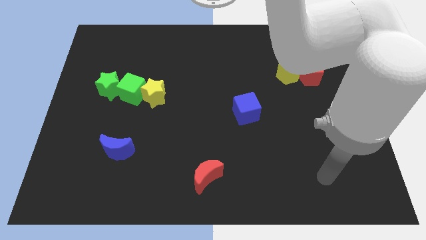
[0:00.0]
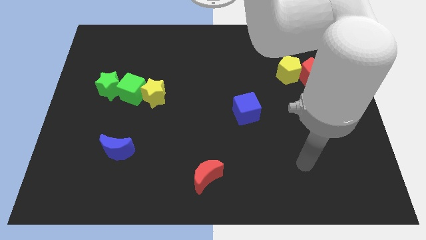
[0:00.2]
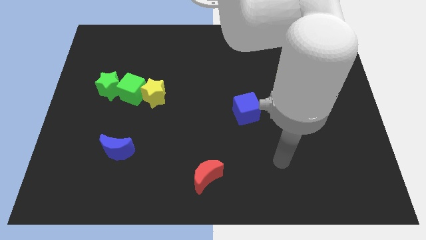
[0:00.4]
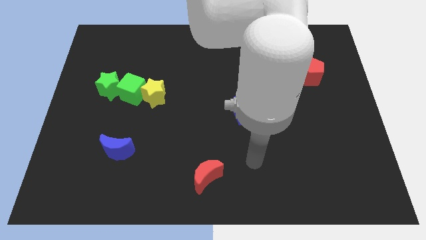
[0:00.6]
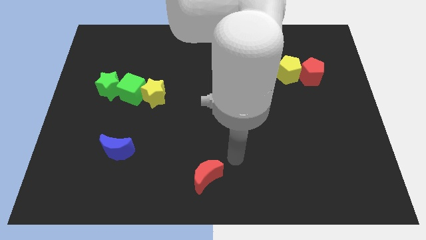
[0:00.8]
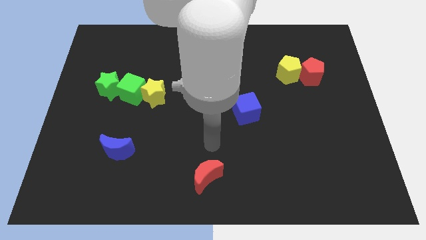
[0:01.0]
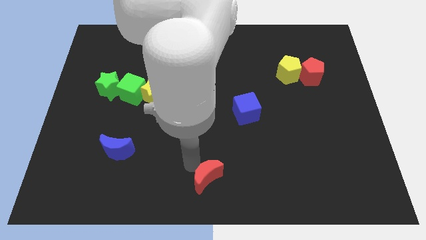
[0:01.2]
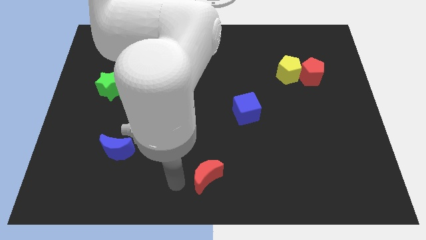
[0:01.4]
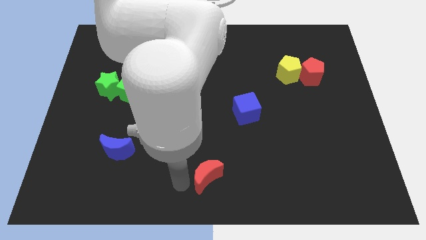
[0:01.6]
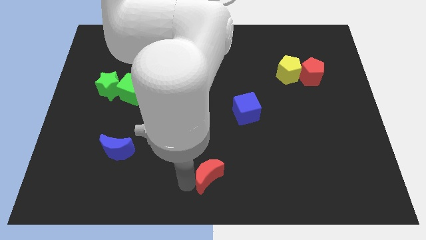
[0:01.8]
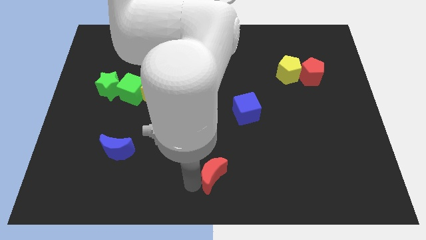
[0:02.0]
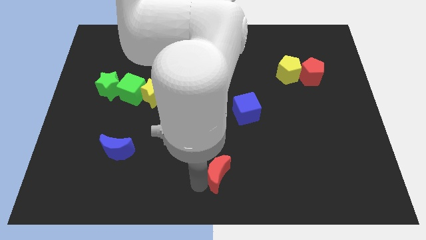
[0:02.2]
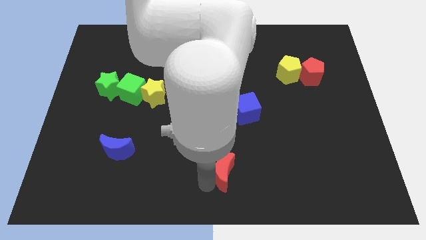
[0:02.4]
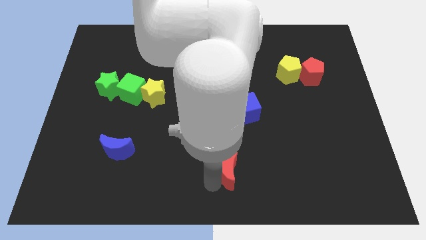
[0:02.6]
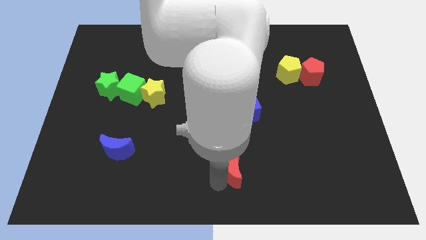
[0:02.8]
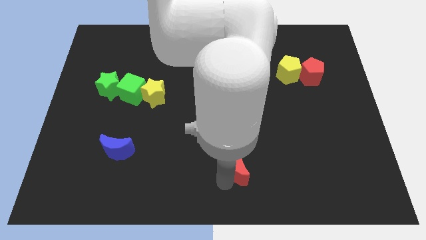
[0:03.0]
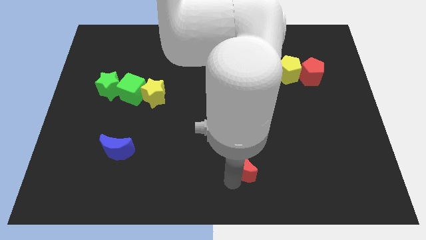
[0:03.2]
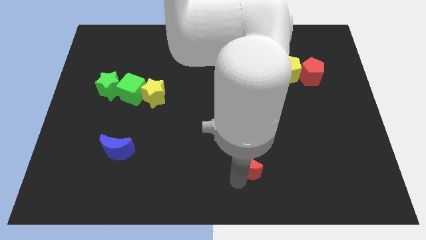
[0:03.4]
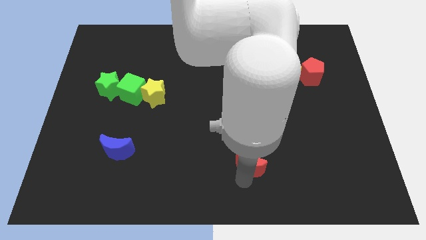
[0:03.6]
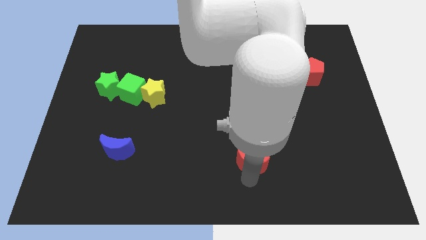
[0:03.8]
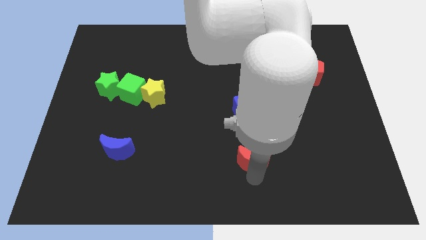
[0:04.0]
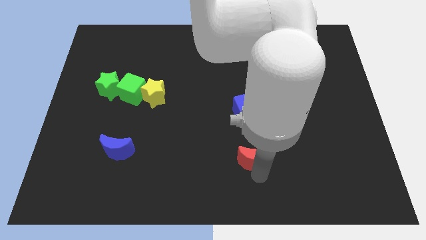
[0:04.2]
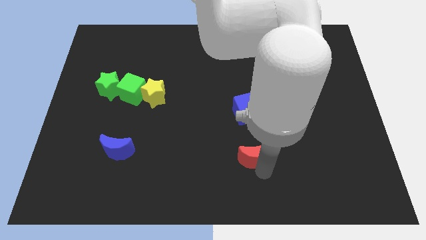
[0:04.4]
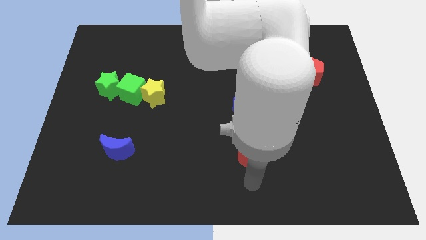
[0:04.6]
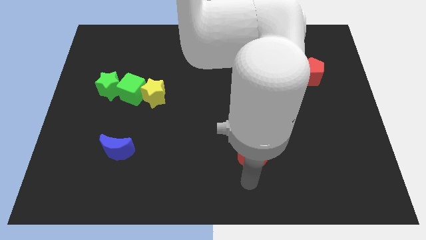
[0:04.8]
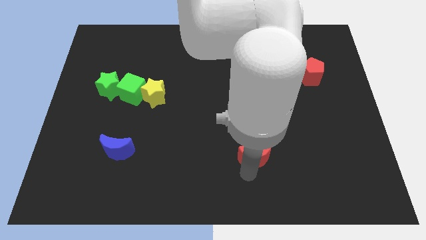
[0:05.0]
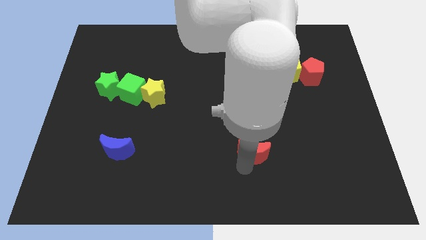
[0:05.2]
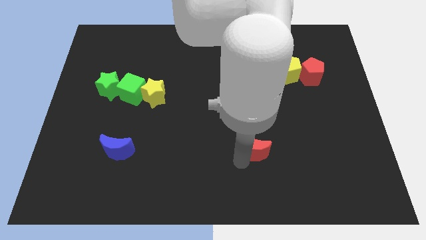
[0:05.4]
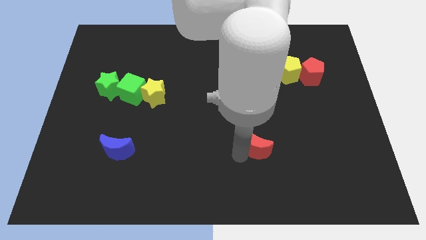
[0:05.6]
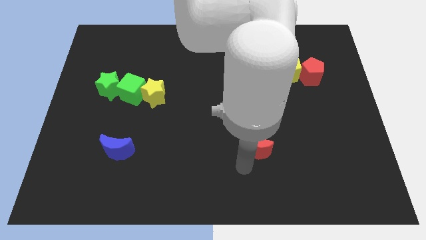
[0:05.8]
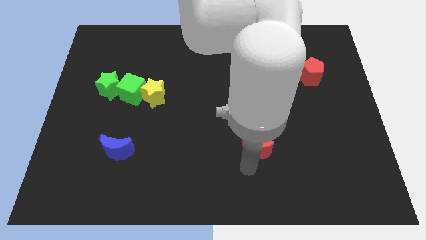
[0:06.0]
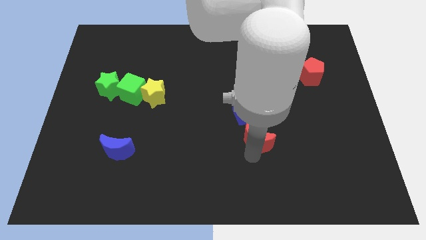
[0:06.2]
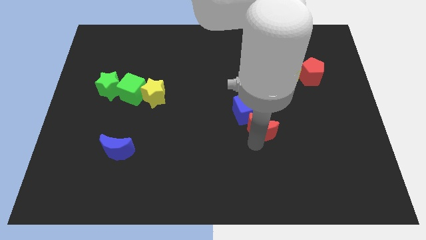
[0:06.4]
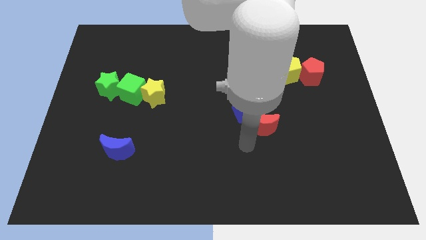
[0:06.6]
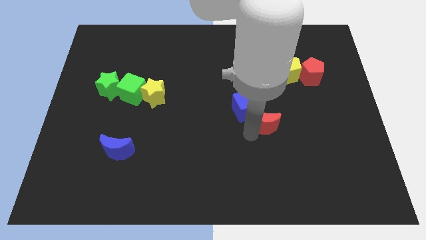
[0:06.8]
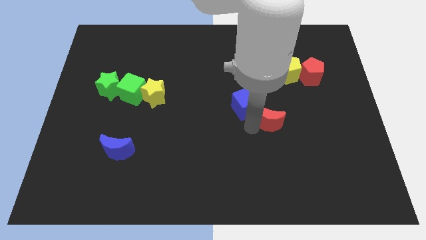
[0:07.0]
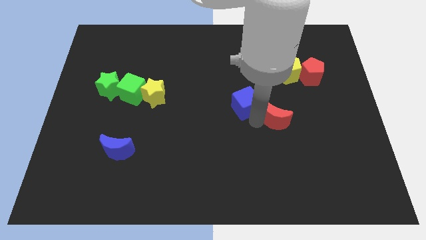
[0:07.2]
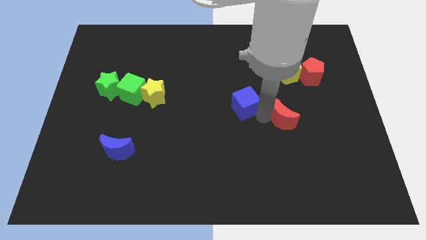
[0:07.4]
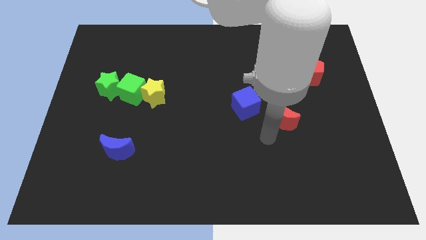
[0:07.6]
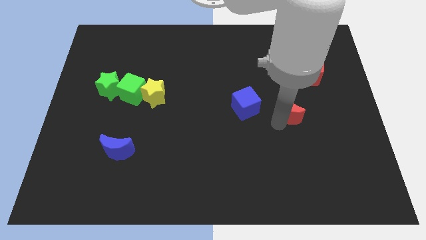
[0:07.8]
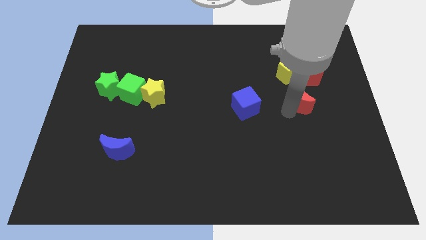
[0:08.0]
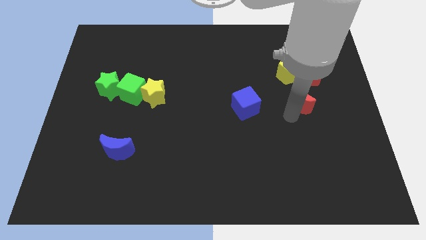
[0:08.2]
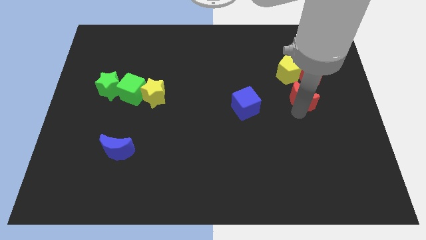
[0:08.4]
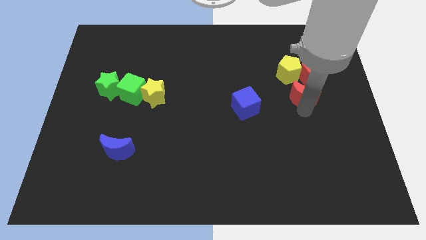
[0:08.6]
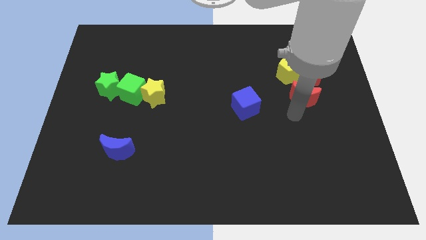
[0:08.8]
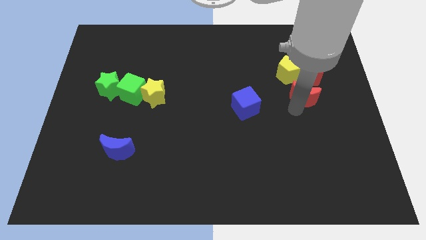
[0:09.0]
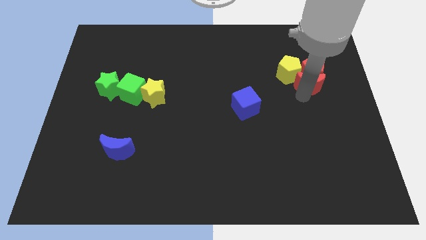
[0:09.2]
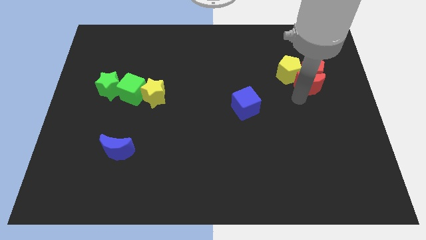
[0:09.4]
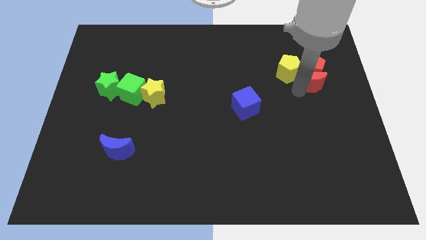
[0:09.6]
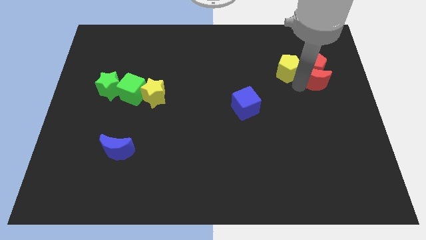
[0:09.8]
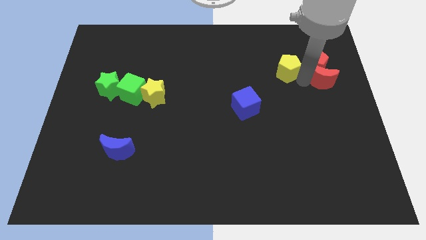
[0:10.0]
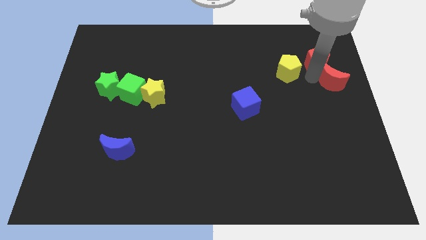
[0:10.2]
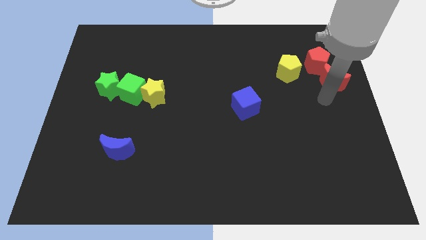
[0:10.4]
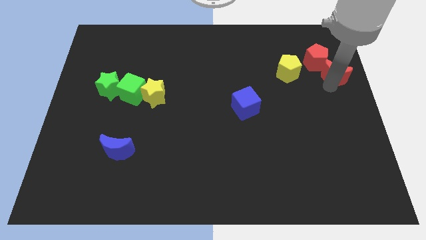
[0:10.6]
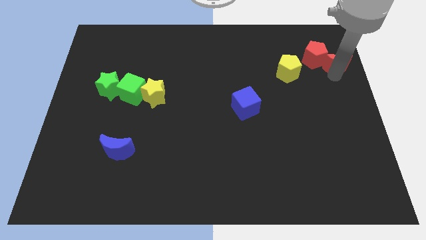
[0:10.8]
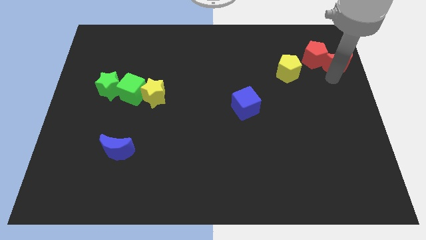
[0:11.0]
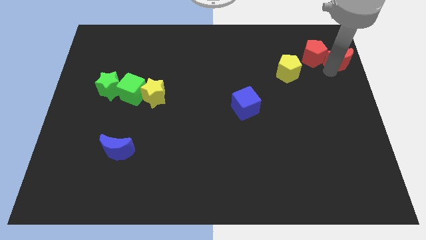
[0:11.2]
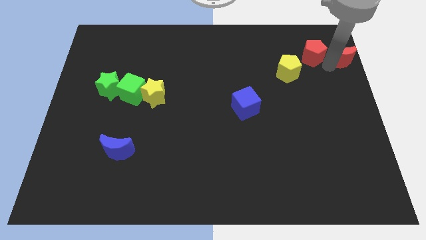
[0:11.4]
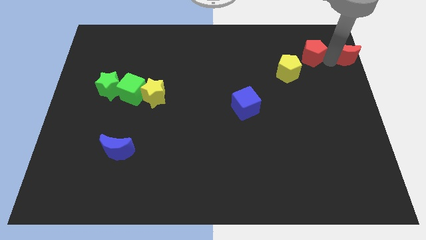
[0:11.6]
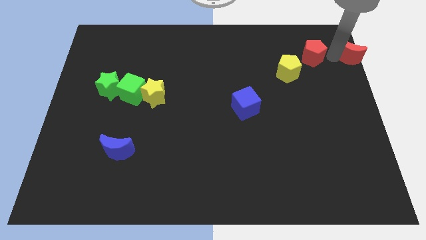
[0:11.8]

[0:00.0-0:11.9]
slide the red moon to the upper right corner
